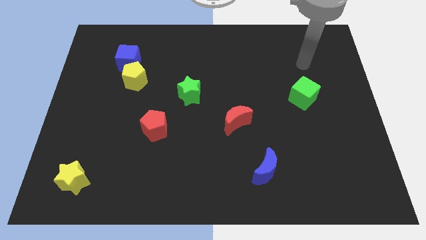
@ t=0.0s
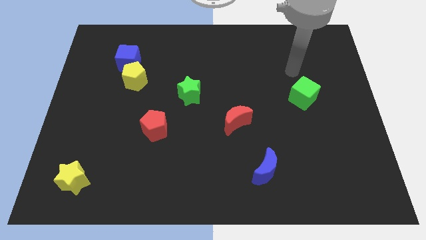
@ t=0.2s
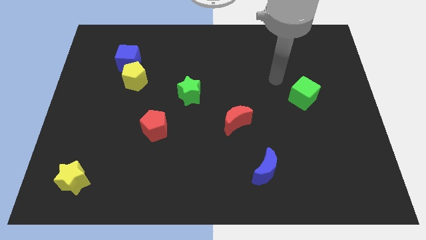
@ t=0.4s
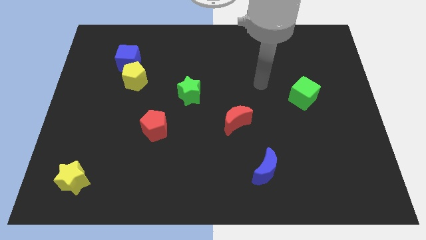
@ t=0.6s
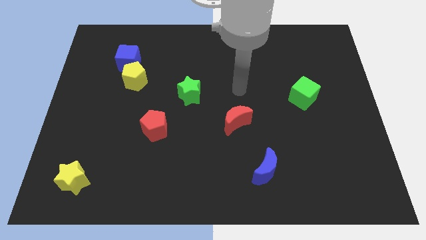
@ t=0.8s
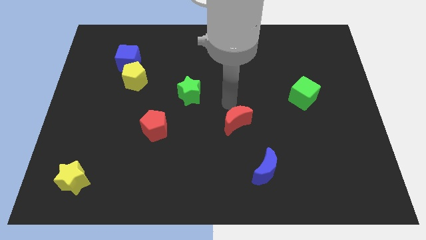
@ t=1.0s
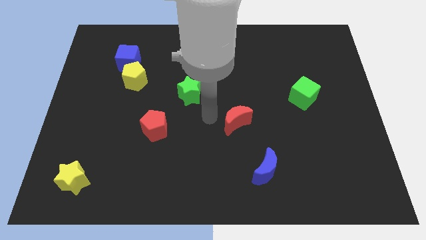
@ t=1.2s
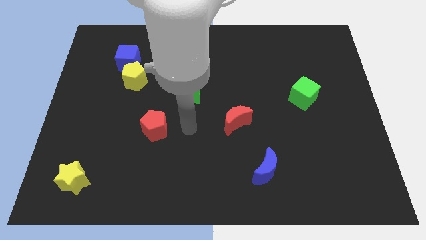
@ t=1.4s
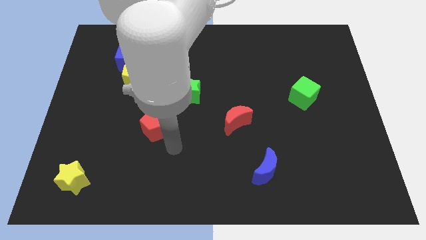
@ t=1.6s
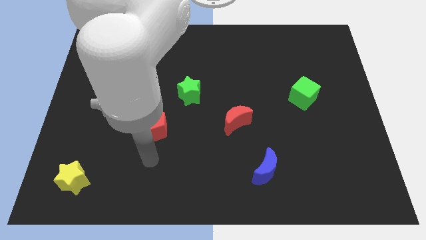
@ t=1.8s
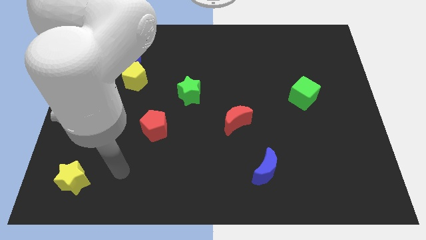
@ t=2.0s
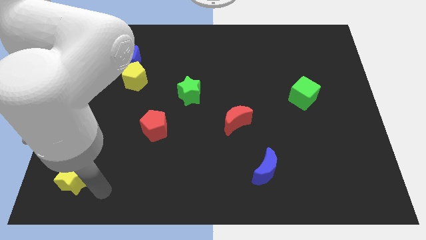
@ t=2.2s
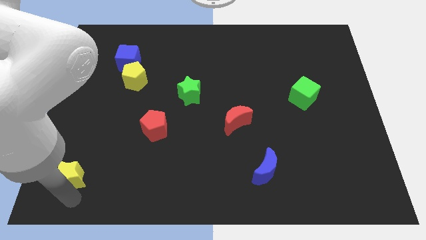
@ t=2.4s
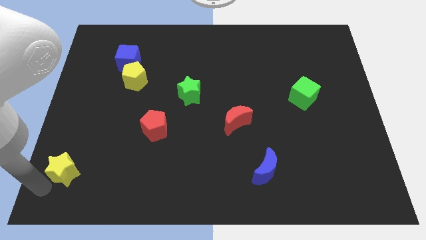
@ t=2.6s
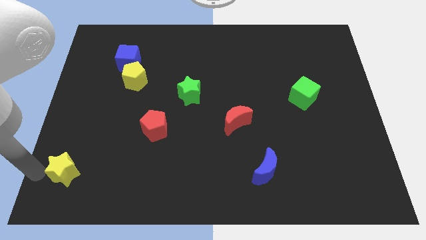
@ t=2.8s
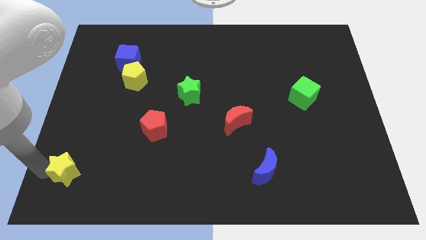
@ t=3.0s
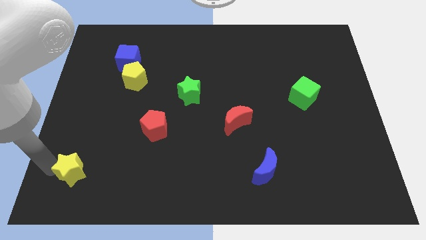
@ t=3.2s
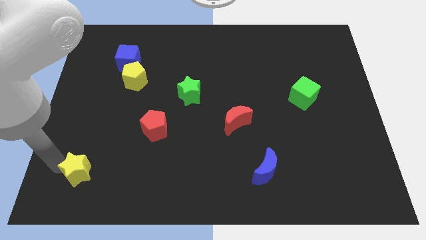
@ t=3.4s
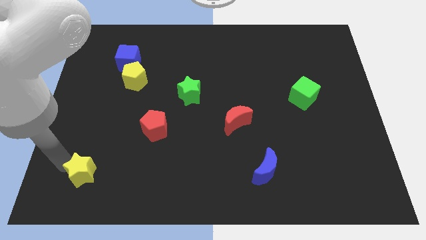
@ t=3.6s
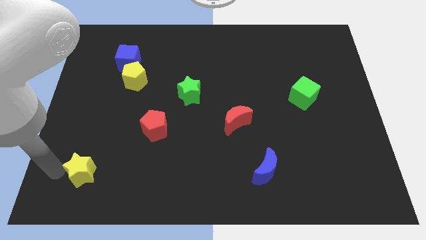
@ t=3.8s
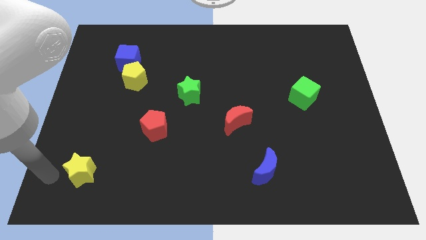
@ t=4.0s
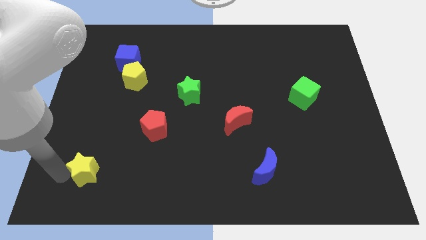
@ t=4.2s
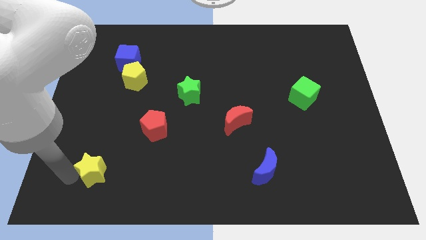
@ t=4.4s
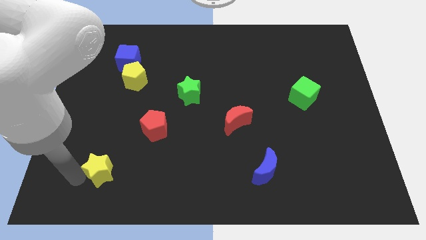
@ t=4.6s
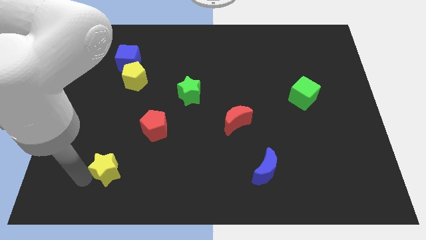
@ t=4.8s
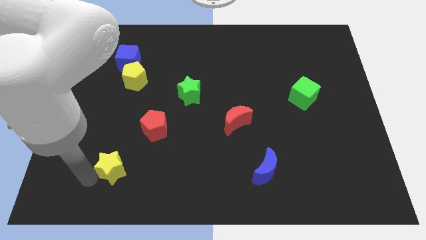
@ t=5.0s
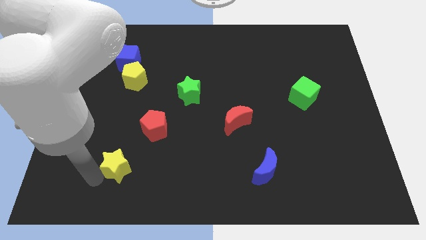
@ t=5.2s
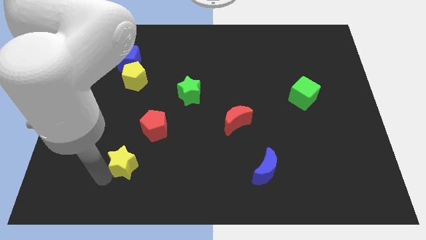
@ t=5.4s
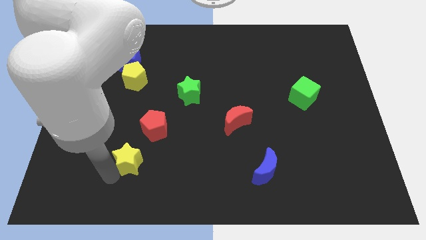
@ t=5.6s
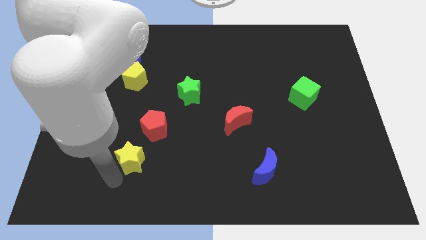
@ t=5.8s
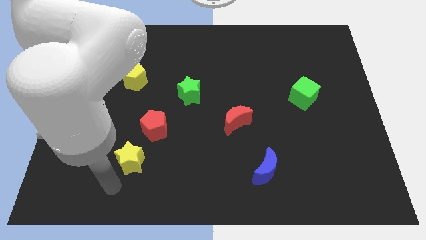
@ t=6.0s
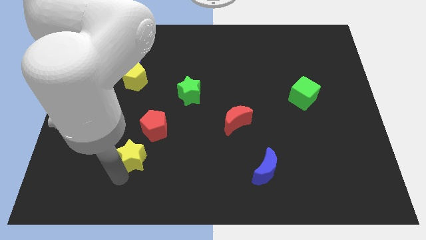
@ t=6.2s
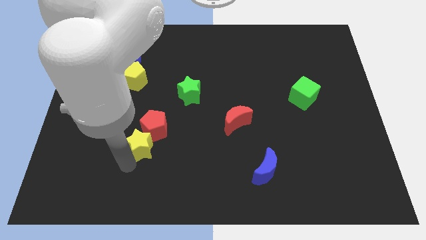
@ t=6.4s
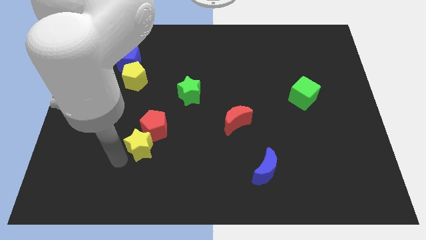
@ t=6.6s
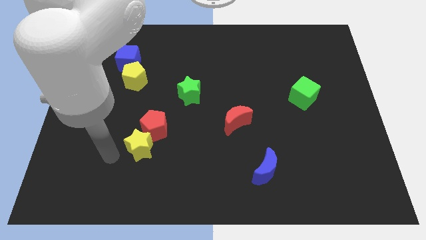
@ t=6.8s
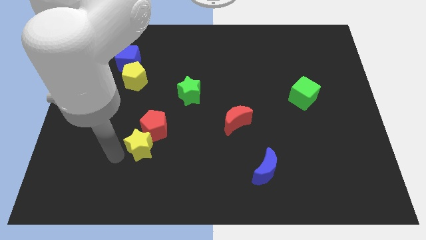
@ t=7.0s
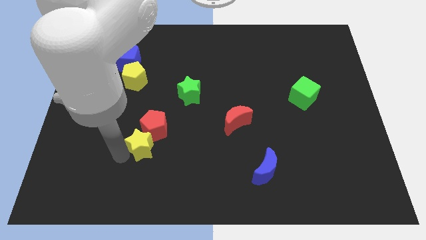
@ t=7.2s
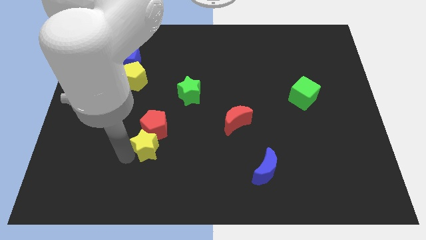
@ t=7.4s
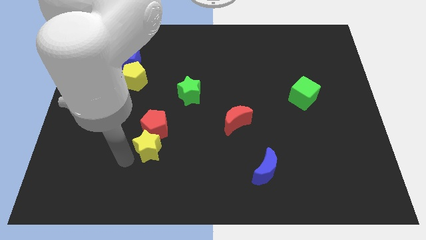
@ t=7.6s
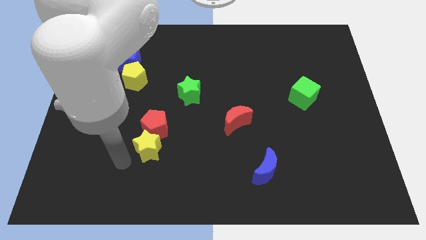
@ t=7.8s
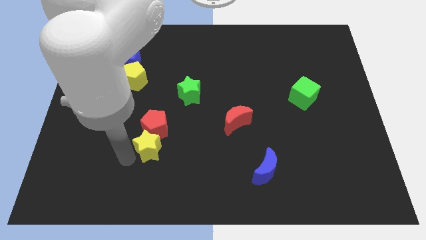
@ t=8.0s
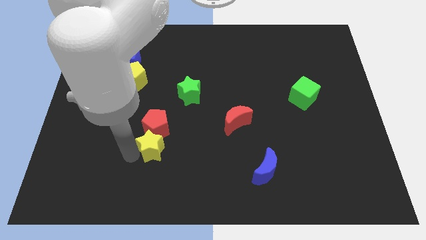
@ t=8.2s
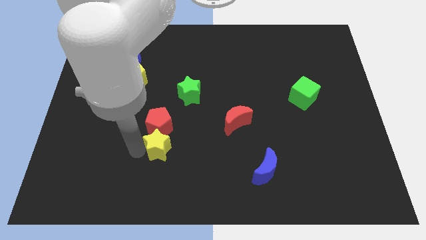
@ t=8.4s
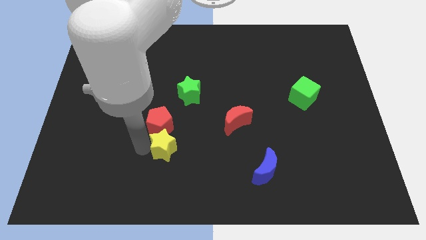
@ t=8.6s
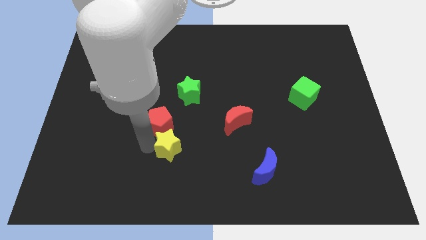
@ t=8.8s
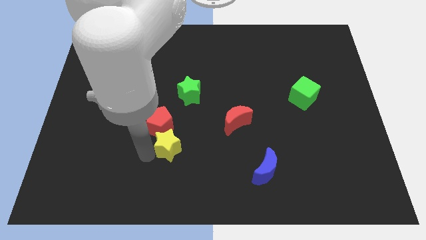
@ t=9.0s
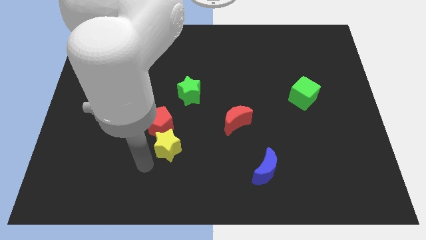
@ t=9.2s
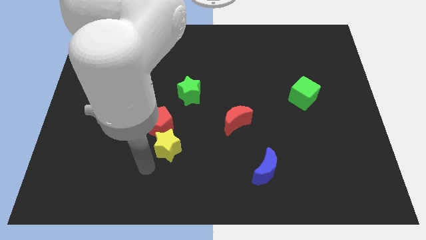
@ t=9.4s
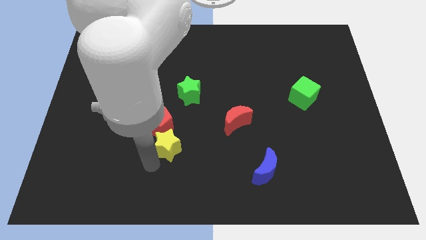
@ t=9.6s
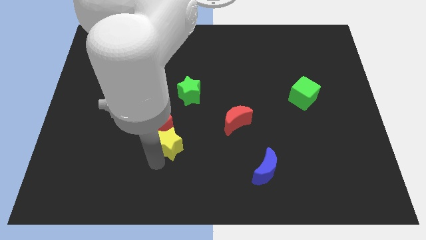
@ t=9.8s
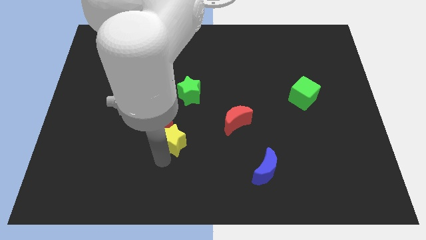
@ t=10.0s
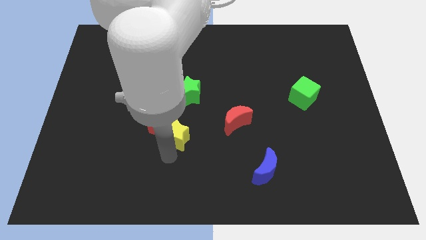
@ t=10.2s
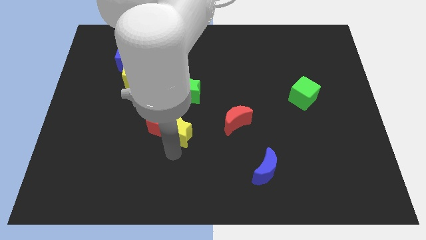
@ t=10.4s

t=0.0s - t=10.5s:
slide the yellow star to the middle of the board

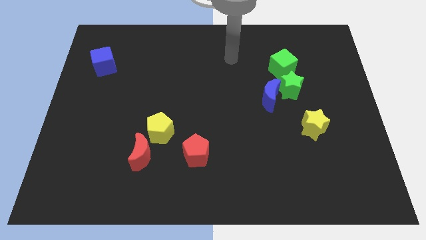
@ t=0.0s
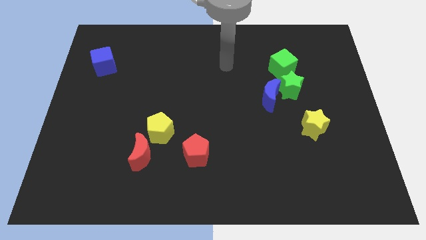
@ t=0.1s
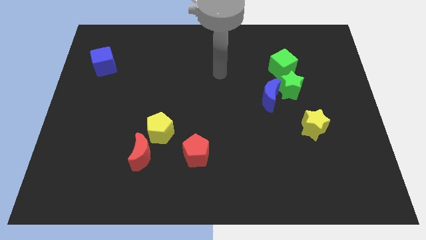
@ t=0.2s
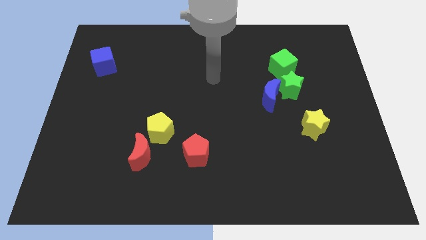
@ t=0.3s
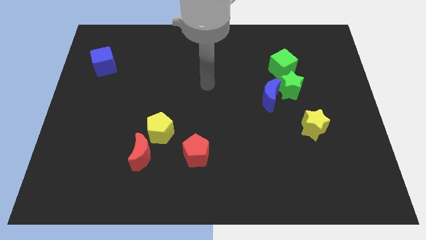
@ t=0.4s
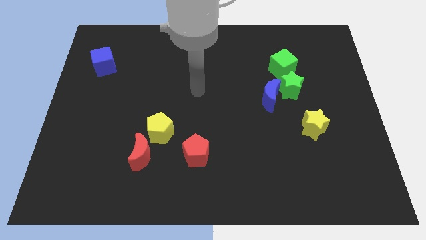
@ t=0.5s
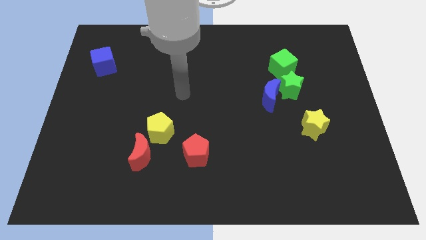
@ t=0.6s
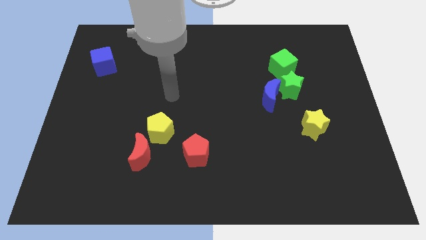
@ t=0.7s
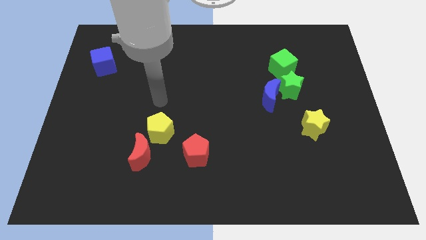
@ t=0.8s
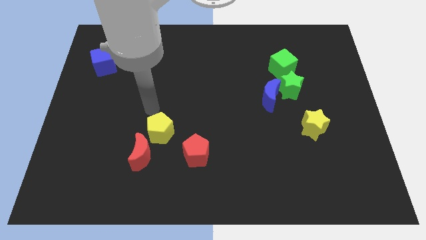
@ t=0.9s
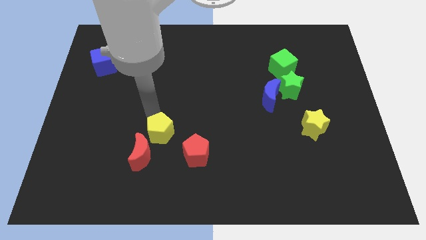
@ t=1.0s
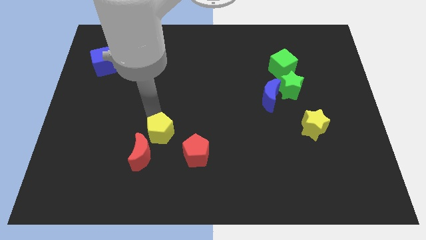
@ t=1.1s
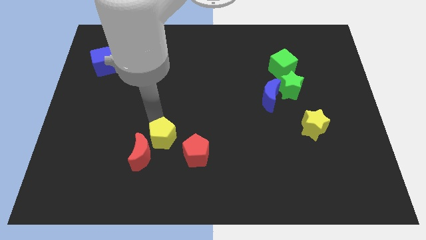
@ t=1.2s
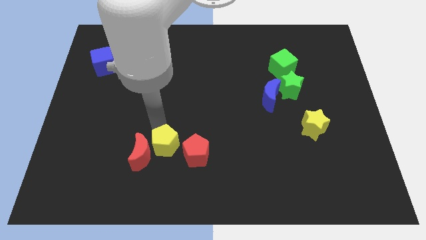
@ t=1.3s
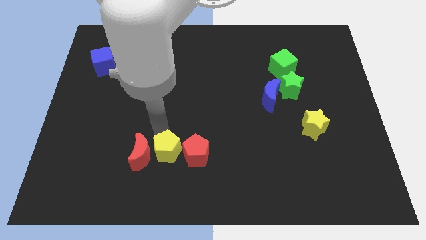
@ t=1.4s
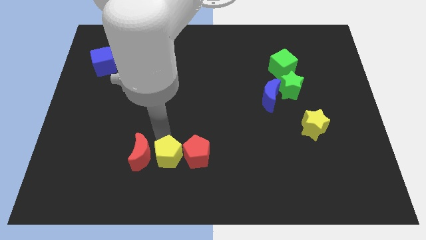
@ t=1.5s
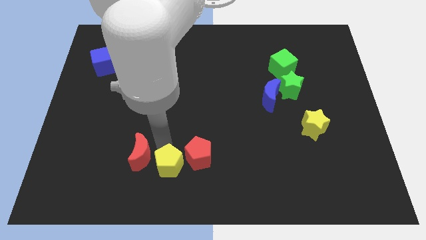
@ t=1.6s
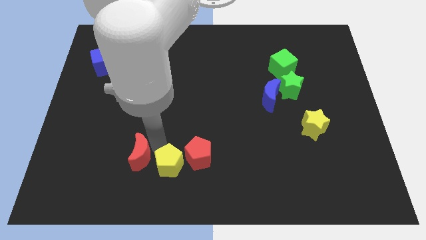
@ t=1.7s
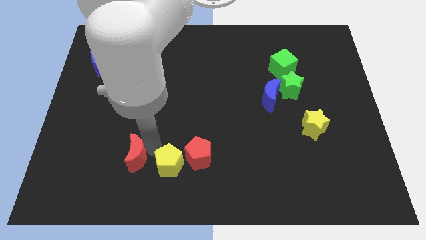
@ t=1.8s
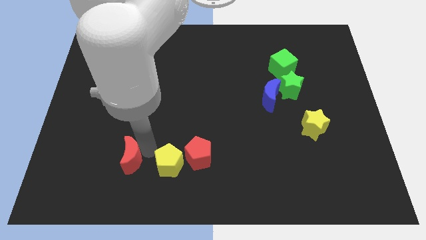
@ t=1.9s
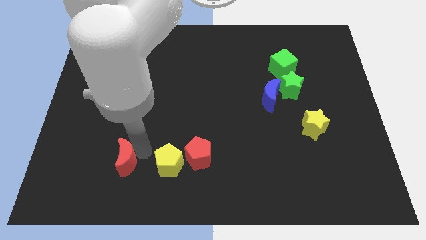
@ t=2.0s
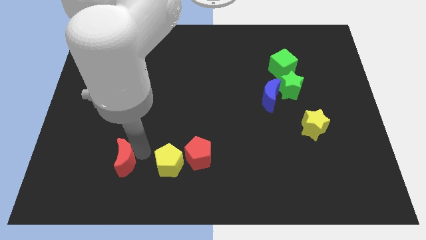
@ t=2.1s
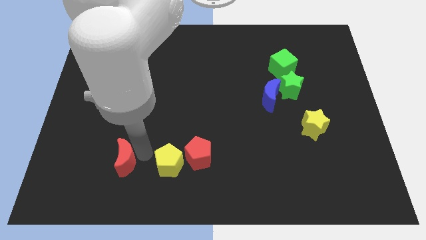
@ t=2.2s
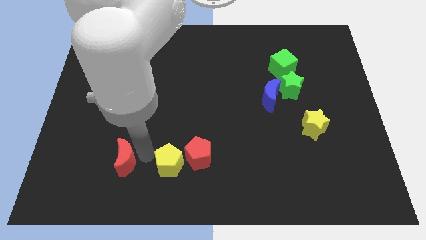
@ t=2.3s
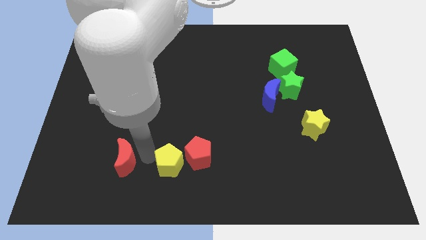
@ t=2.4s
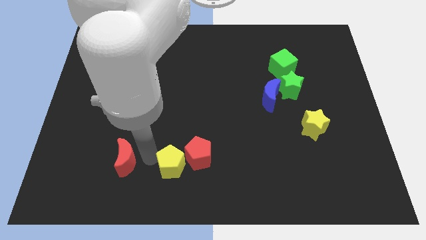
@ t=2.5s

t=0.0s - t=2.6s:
move the yellow pentagon to the bottom side
